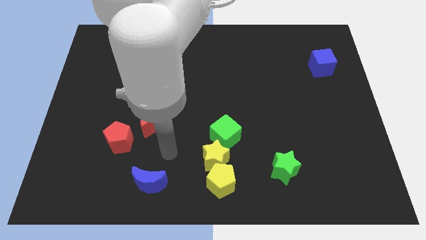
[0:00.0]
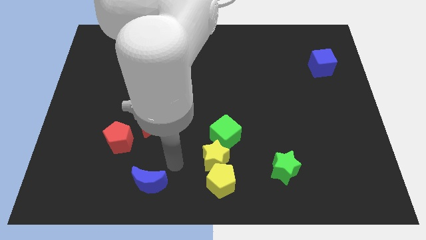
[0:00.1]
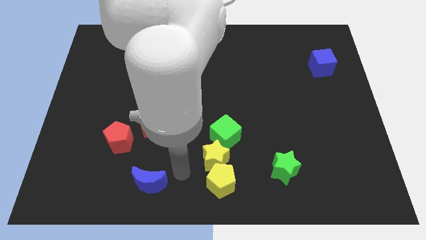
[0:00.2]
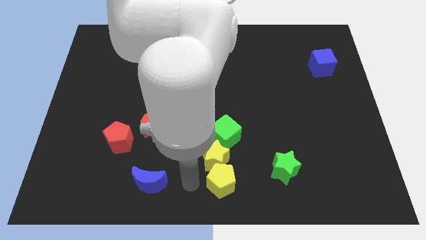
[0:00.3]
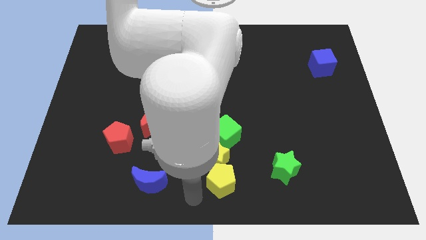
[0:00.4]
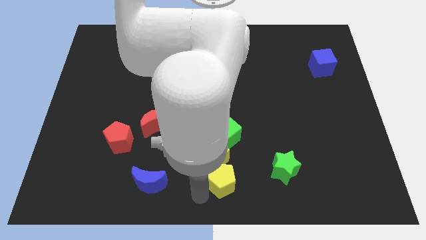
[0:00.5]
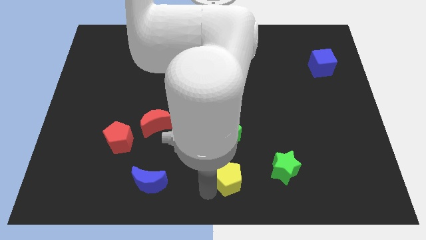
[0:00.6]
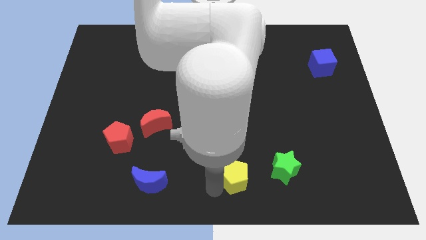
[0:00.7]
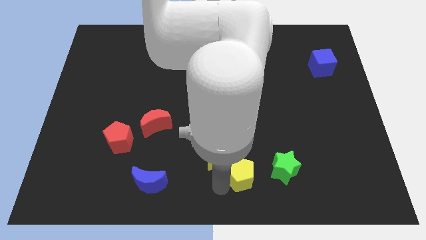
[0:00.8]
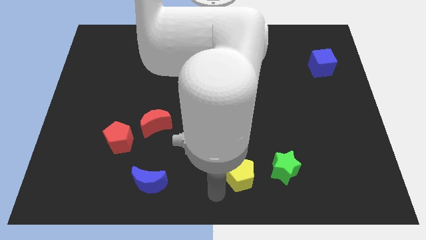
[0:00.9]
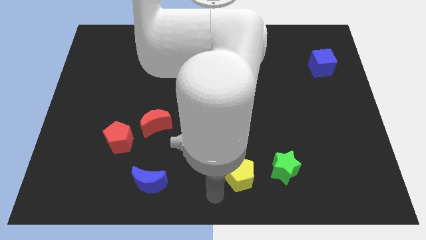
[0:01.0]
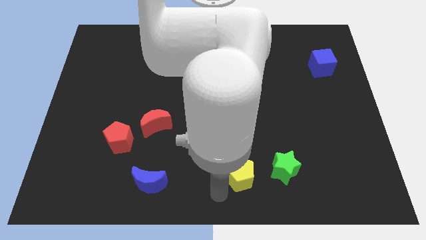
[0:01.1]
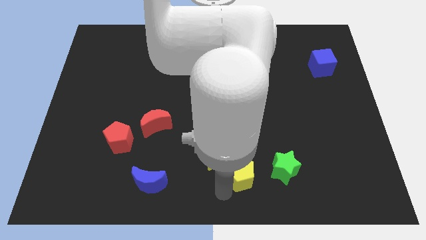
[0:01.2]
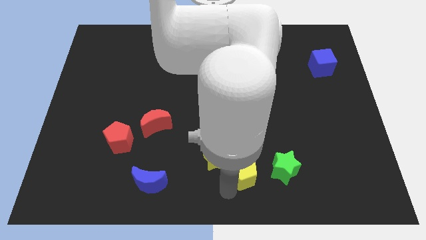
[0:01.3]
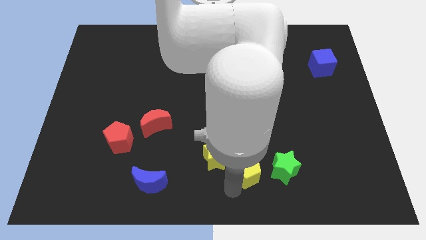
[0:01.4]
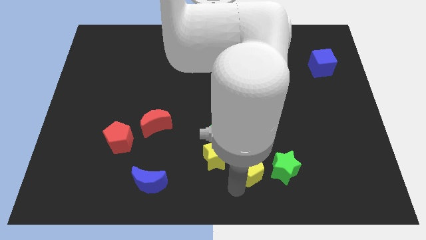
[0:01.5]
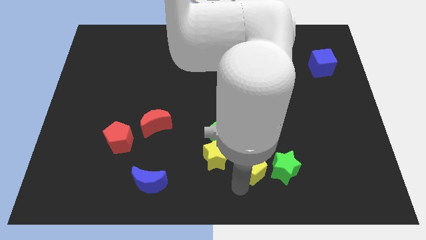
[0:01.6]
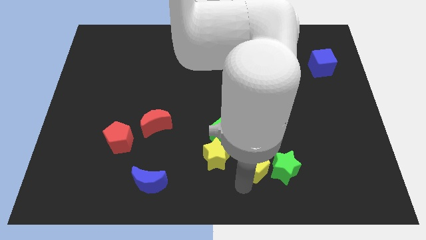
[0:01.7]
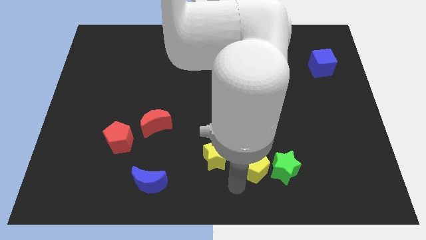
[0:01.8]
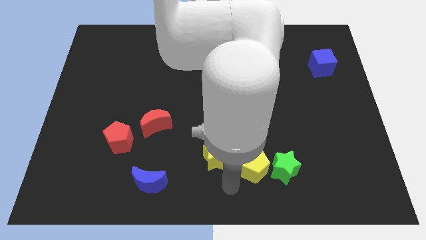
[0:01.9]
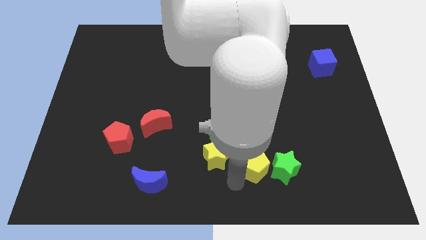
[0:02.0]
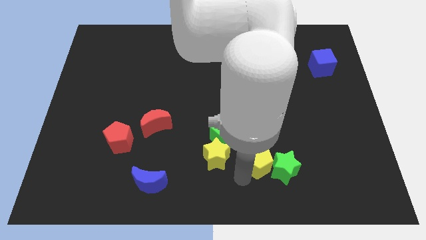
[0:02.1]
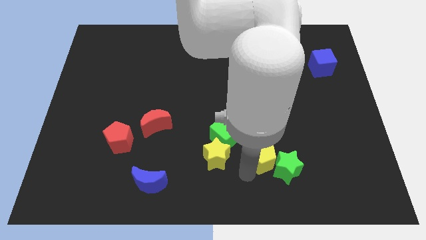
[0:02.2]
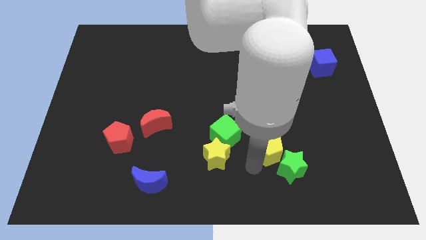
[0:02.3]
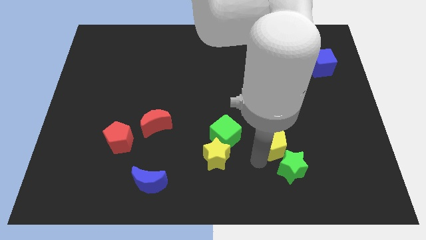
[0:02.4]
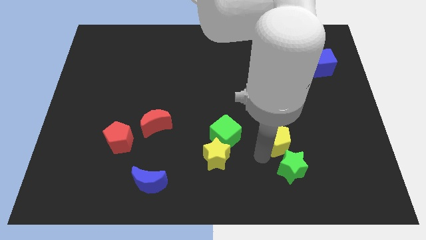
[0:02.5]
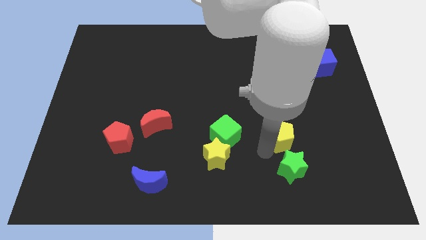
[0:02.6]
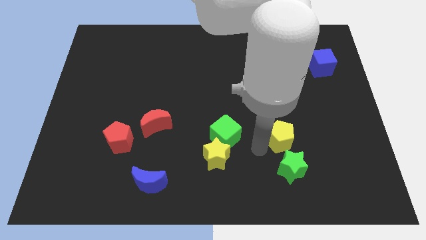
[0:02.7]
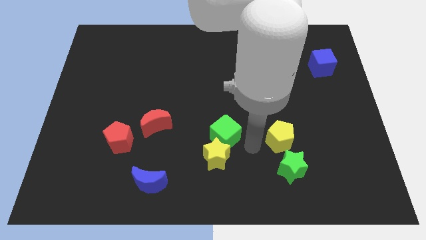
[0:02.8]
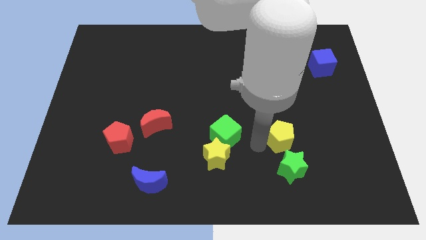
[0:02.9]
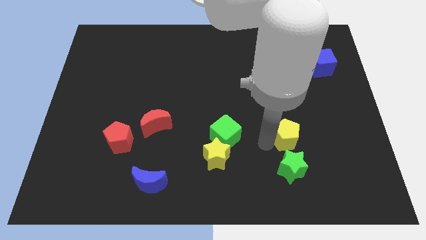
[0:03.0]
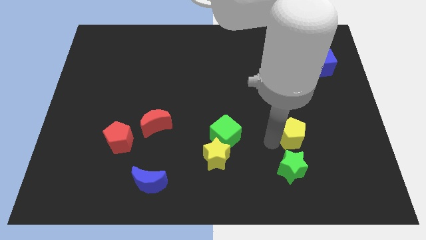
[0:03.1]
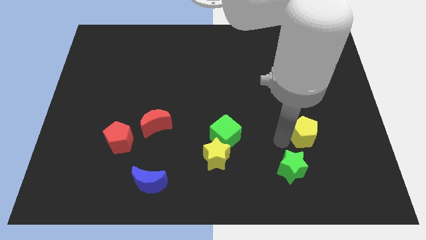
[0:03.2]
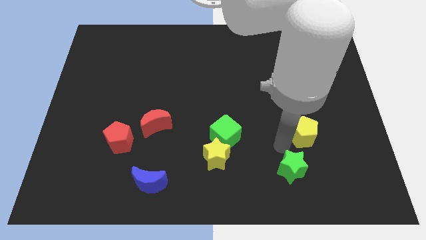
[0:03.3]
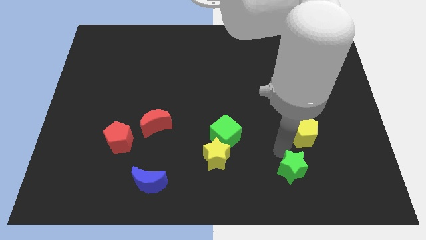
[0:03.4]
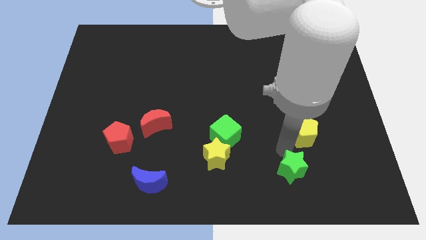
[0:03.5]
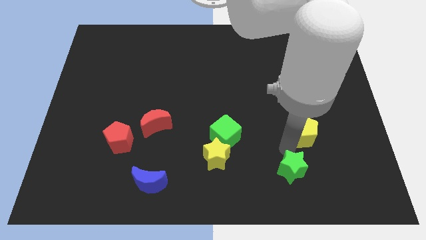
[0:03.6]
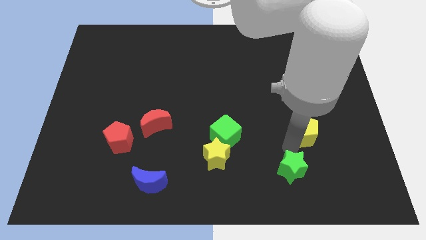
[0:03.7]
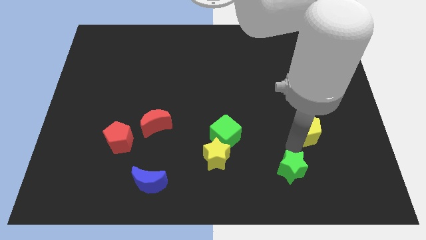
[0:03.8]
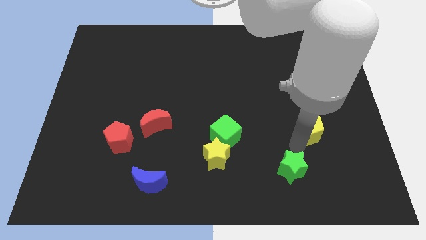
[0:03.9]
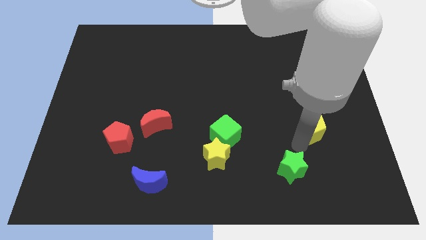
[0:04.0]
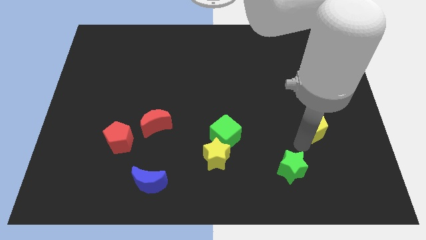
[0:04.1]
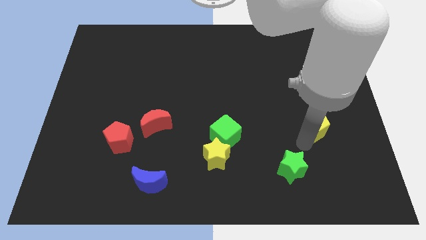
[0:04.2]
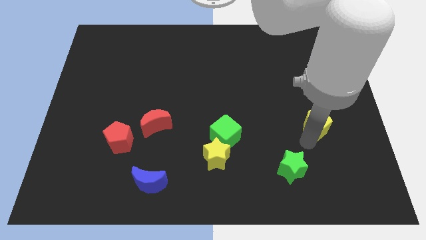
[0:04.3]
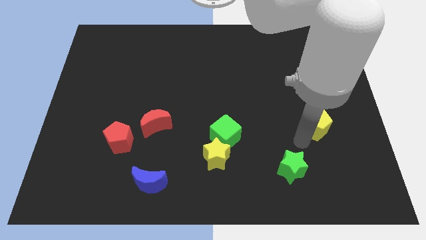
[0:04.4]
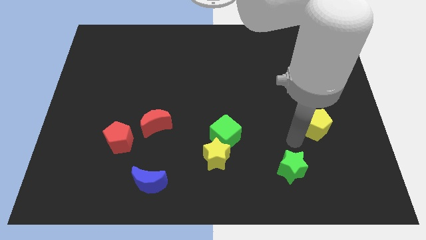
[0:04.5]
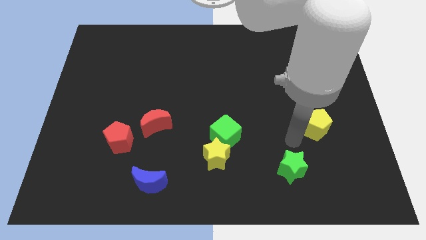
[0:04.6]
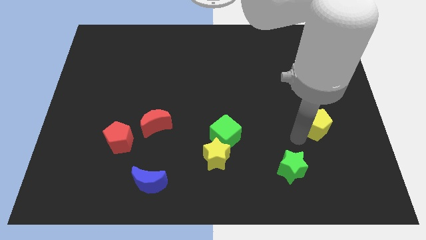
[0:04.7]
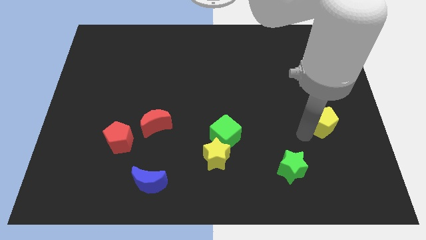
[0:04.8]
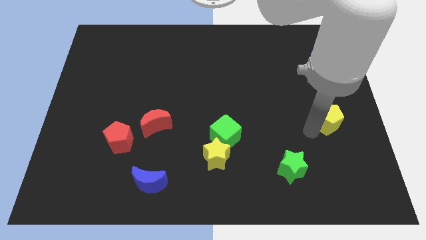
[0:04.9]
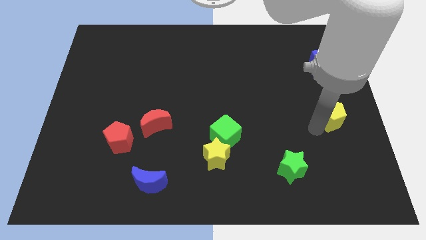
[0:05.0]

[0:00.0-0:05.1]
put the yellow pentagon to the right side of the board

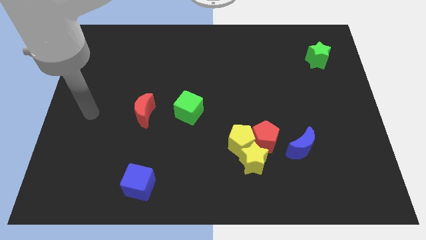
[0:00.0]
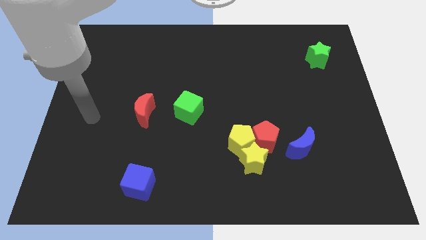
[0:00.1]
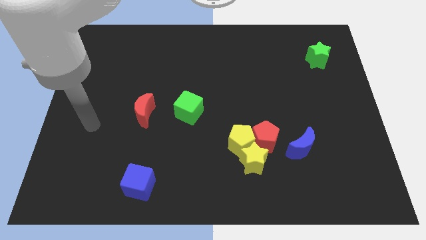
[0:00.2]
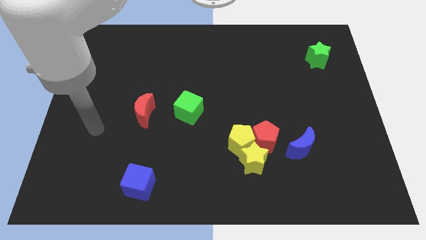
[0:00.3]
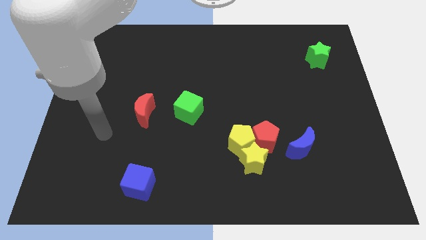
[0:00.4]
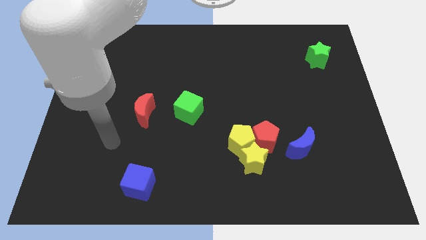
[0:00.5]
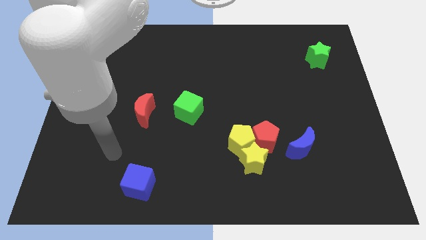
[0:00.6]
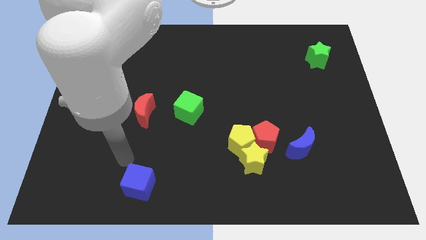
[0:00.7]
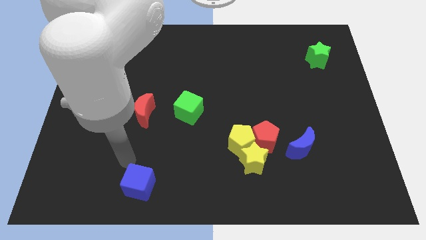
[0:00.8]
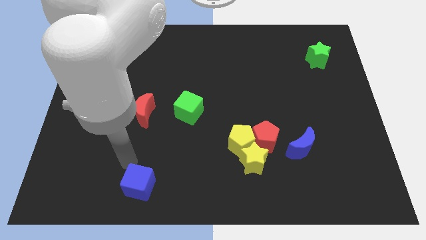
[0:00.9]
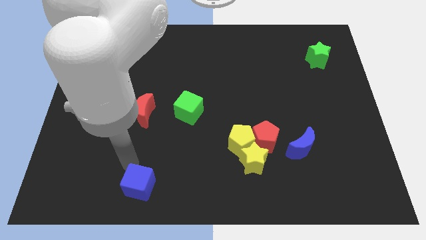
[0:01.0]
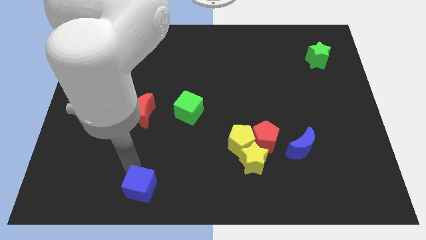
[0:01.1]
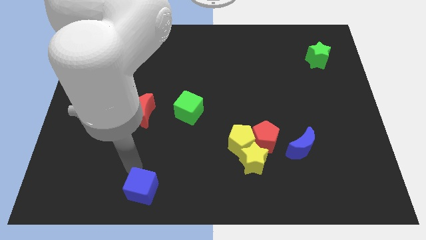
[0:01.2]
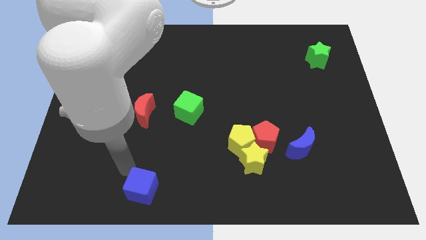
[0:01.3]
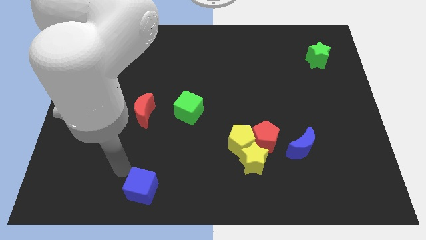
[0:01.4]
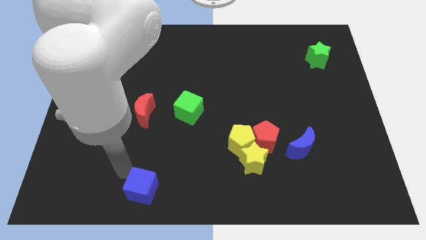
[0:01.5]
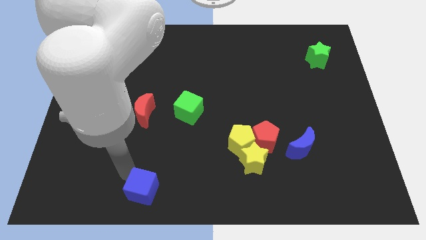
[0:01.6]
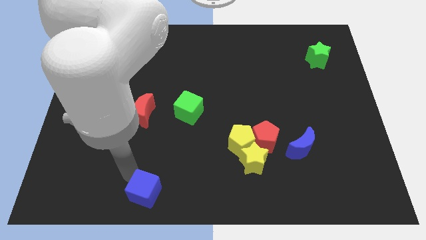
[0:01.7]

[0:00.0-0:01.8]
put the blue cube to the bottom
